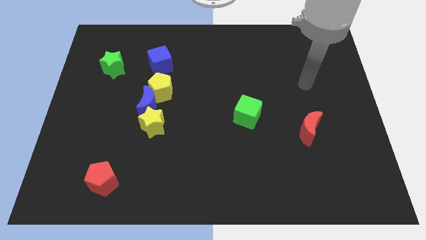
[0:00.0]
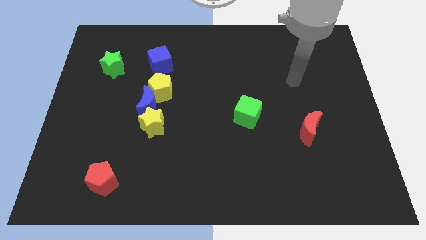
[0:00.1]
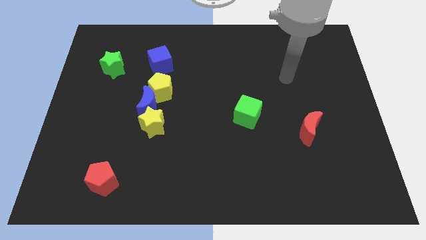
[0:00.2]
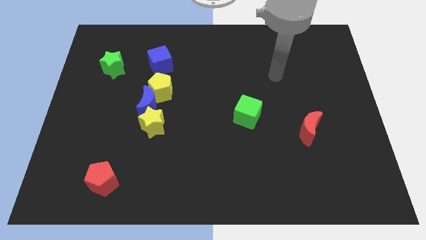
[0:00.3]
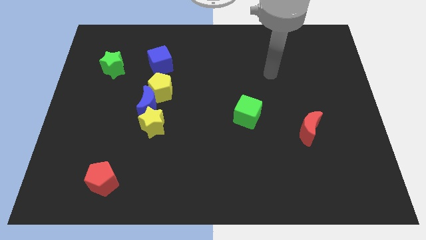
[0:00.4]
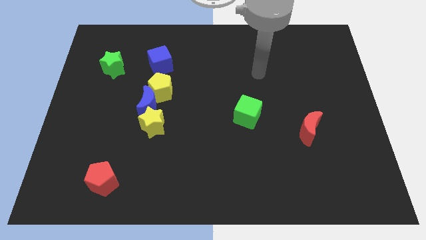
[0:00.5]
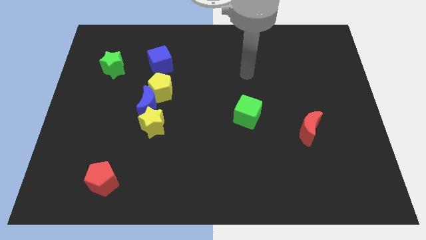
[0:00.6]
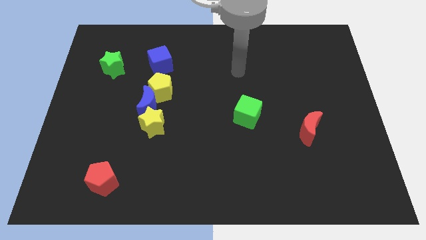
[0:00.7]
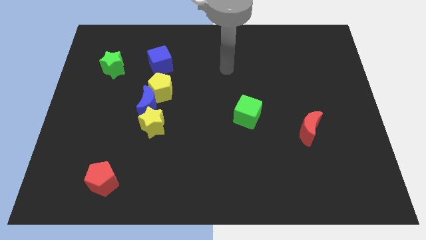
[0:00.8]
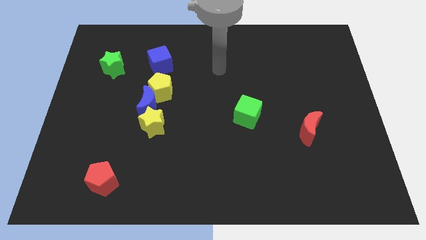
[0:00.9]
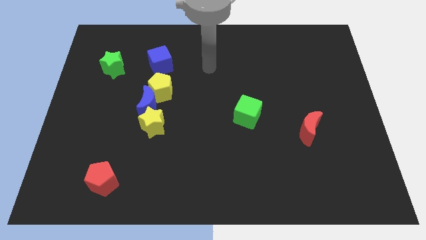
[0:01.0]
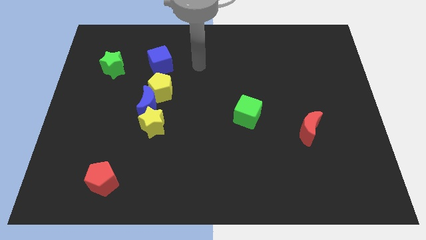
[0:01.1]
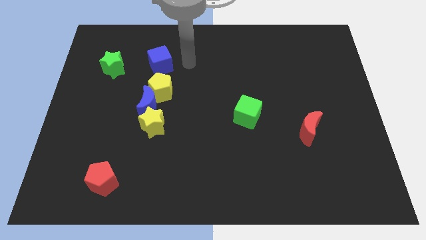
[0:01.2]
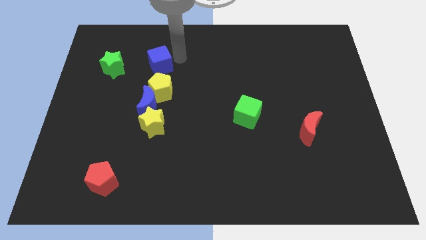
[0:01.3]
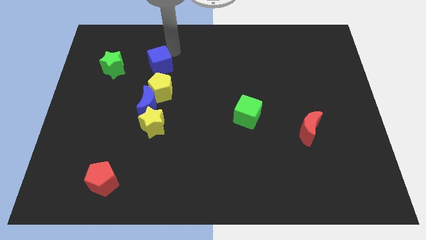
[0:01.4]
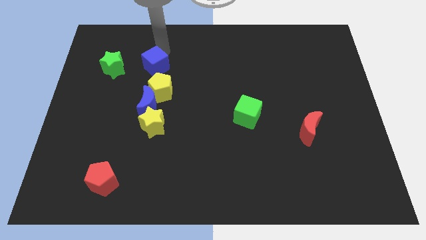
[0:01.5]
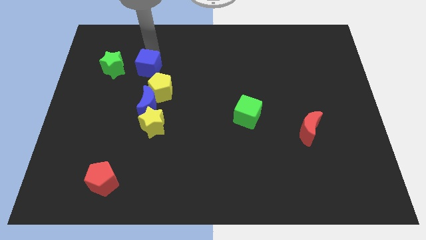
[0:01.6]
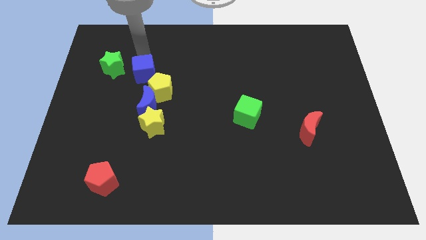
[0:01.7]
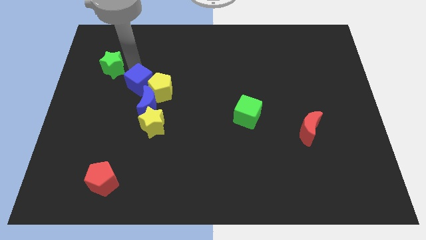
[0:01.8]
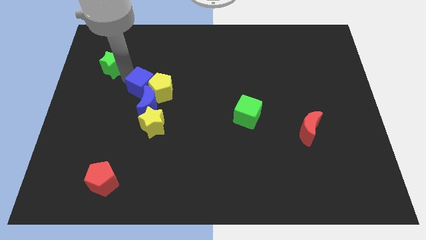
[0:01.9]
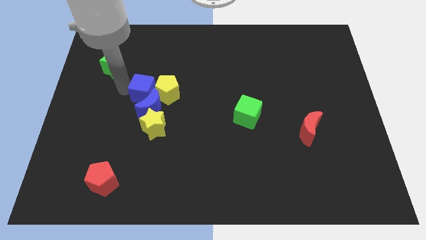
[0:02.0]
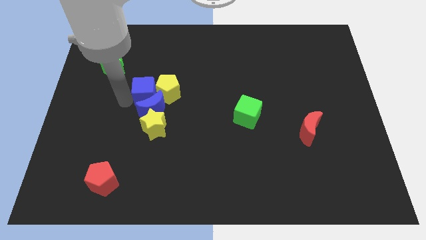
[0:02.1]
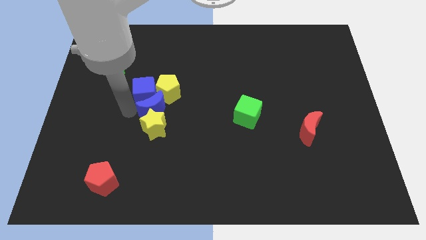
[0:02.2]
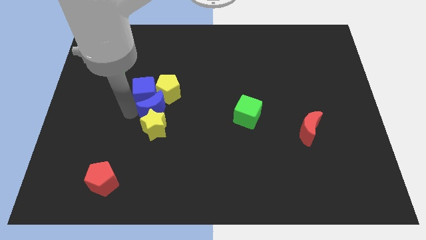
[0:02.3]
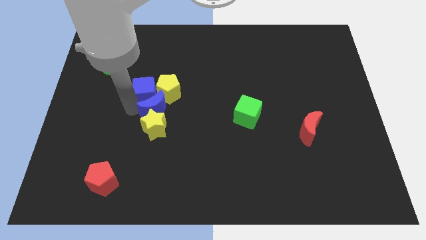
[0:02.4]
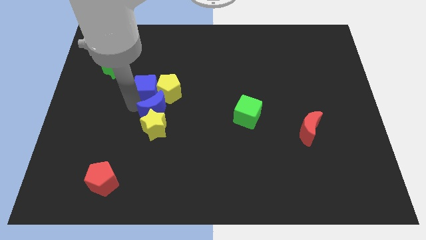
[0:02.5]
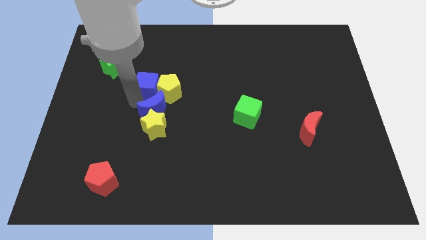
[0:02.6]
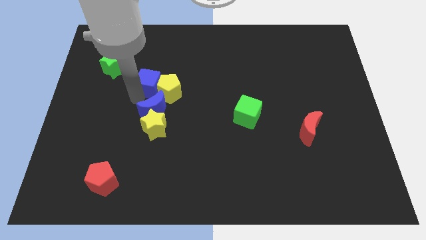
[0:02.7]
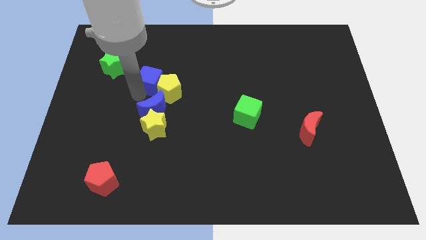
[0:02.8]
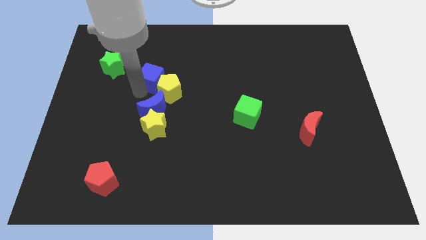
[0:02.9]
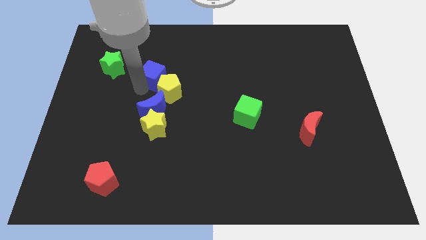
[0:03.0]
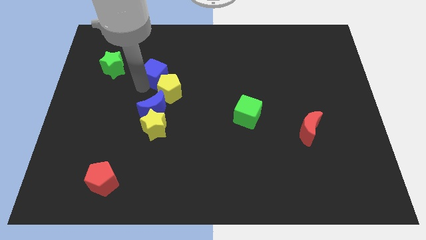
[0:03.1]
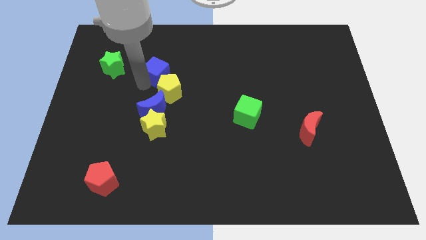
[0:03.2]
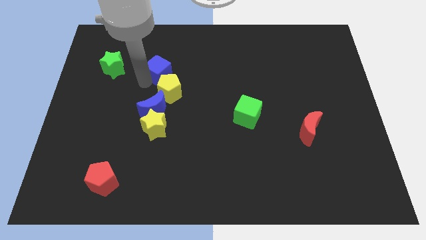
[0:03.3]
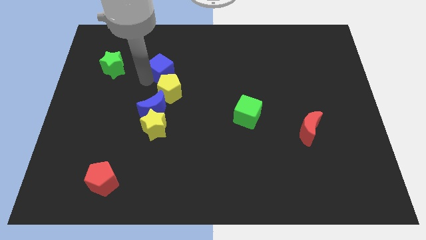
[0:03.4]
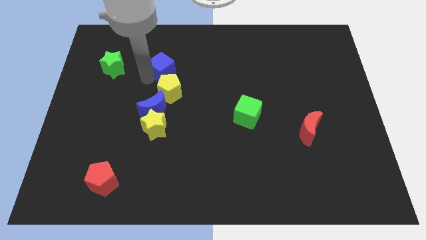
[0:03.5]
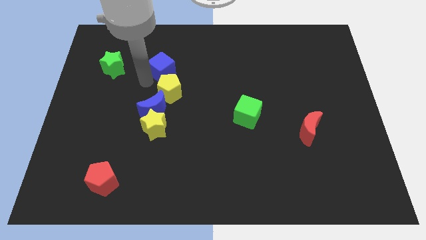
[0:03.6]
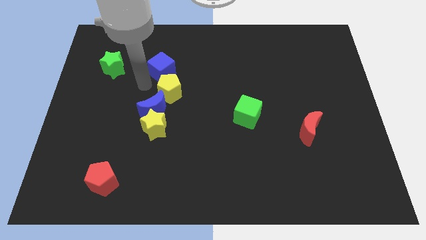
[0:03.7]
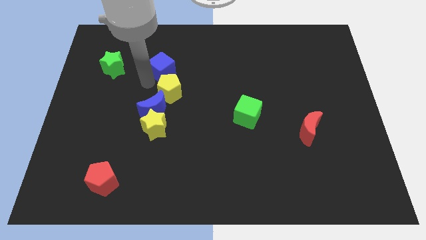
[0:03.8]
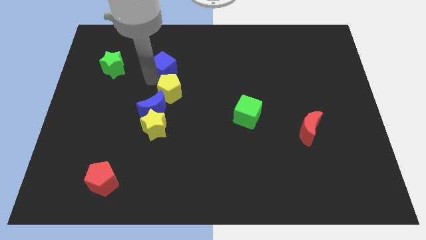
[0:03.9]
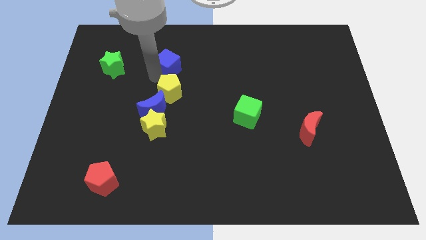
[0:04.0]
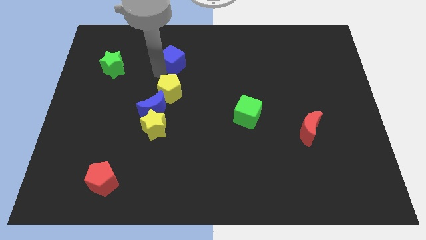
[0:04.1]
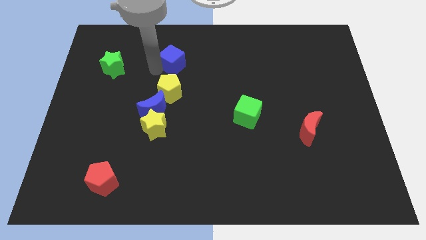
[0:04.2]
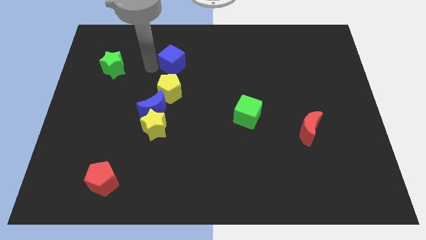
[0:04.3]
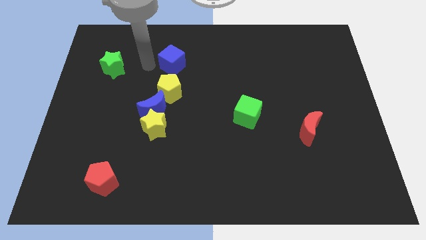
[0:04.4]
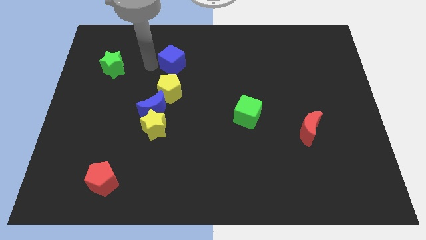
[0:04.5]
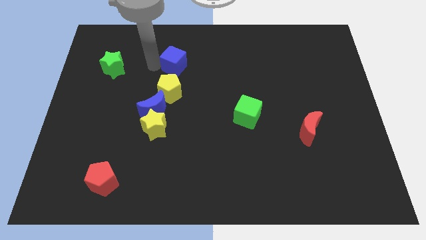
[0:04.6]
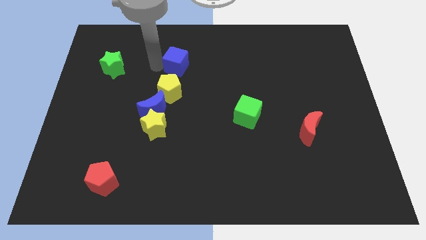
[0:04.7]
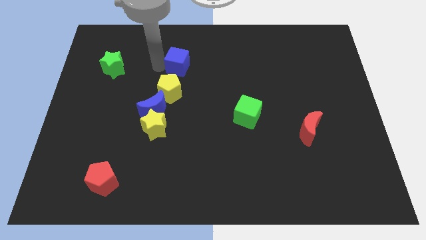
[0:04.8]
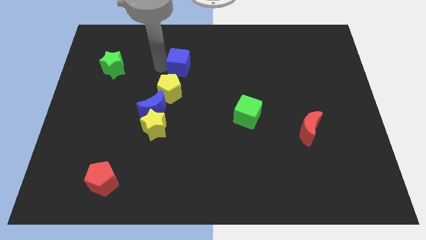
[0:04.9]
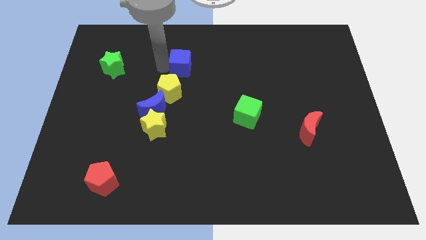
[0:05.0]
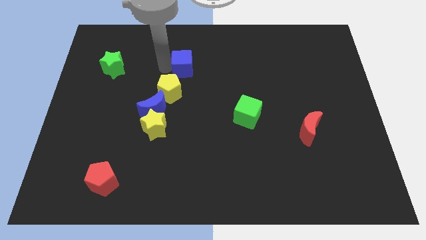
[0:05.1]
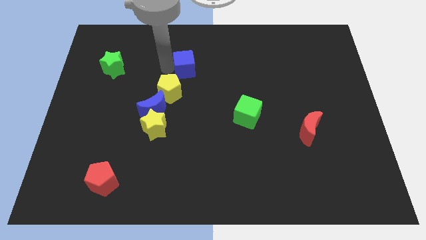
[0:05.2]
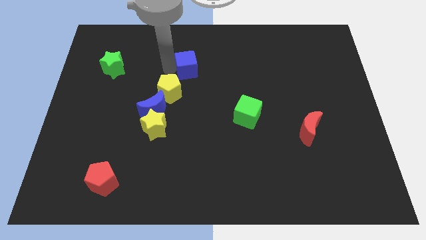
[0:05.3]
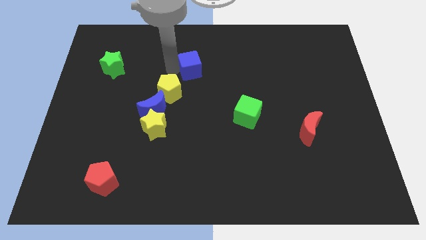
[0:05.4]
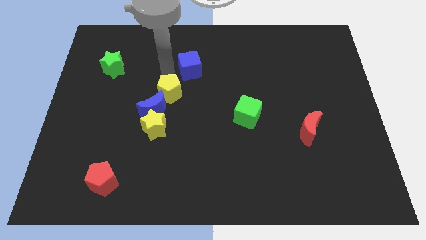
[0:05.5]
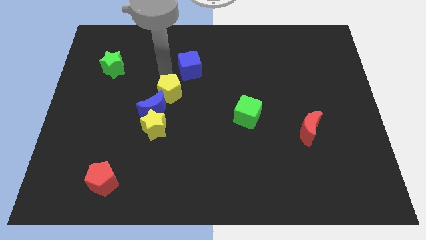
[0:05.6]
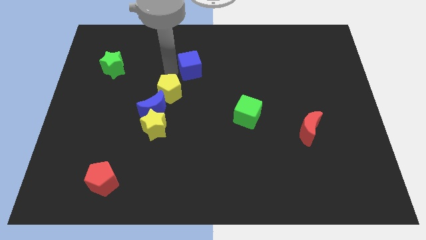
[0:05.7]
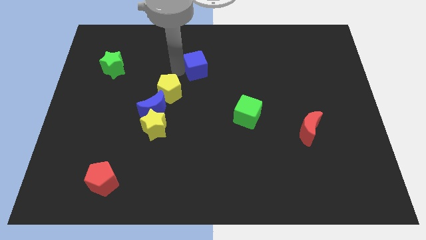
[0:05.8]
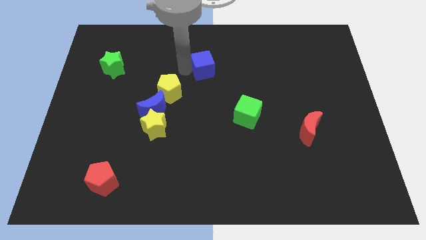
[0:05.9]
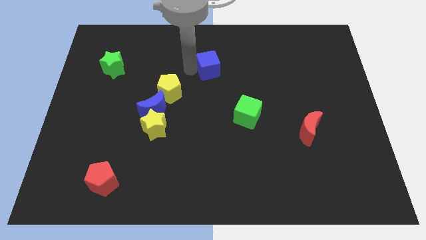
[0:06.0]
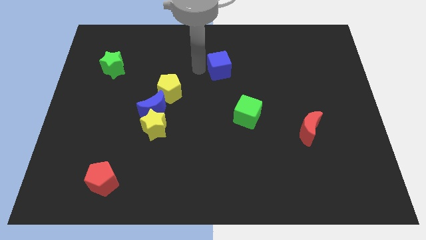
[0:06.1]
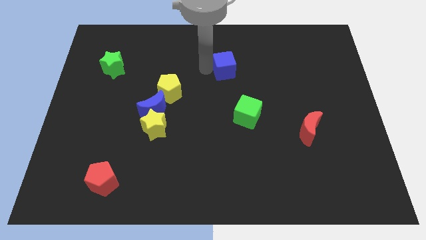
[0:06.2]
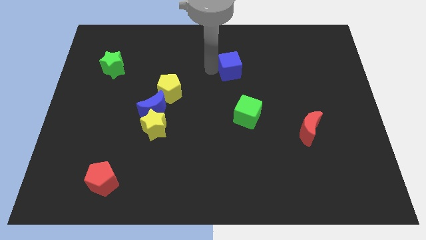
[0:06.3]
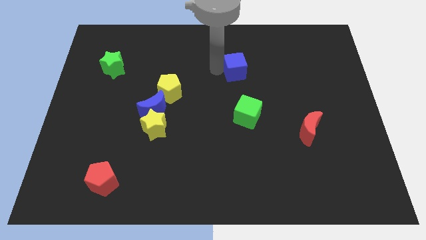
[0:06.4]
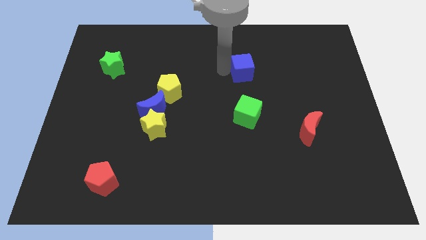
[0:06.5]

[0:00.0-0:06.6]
move the blue cube right

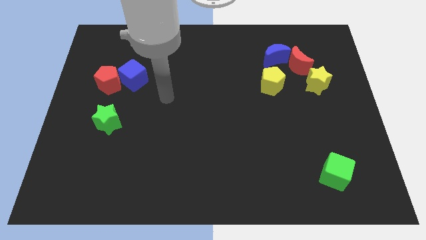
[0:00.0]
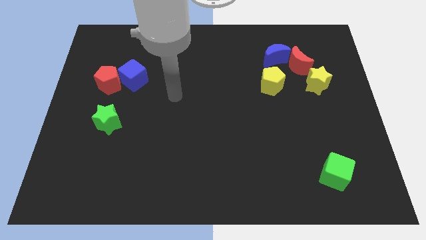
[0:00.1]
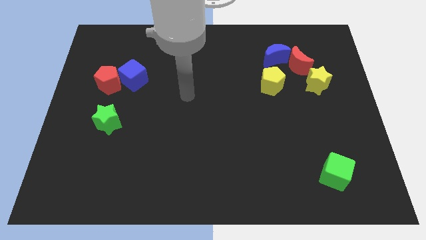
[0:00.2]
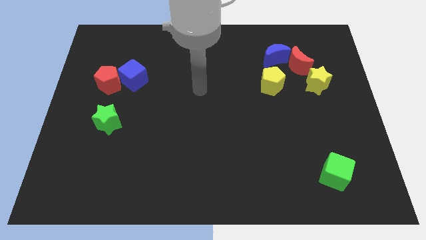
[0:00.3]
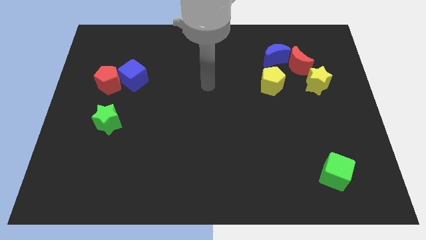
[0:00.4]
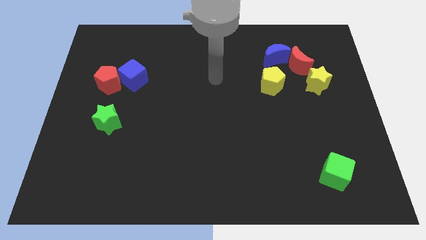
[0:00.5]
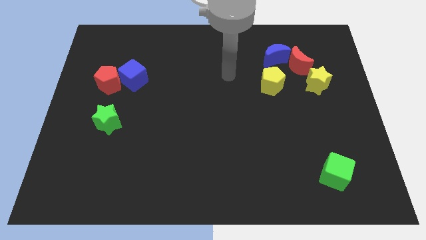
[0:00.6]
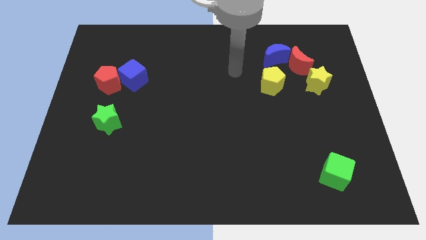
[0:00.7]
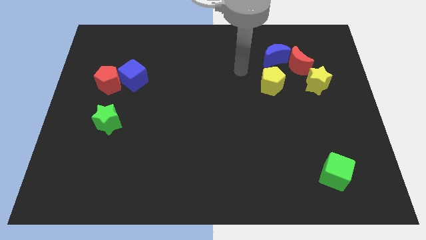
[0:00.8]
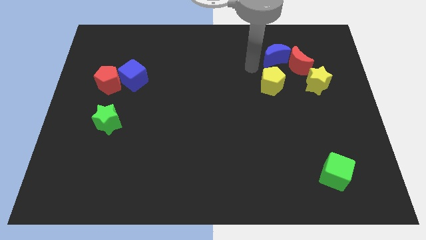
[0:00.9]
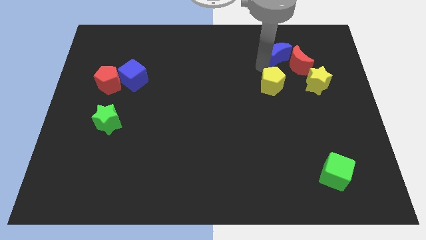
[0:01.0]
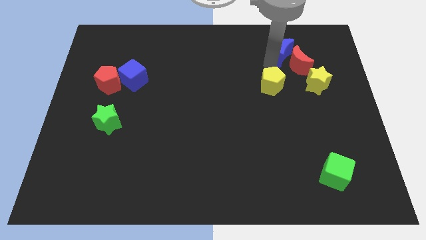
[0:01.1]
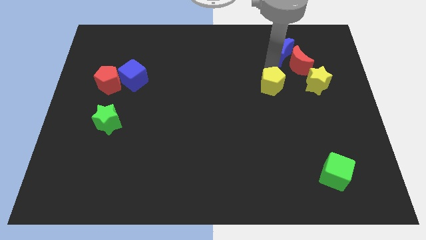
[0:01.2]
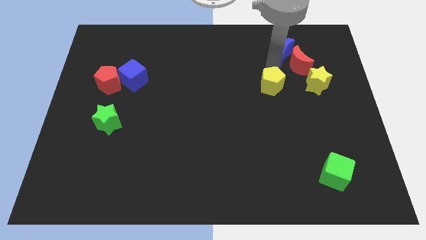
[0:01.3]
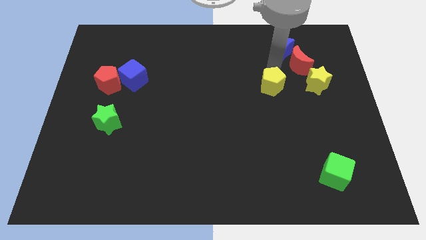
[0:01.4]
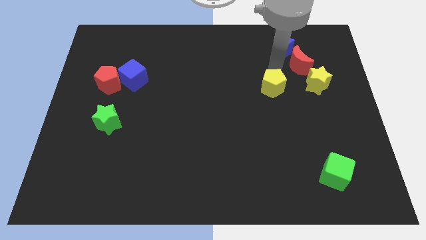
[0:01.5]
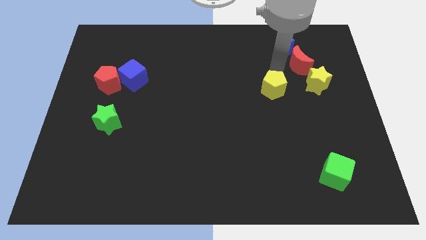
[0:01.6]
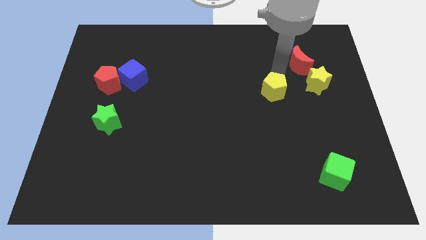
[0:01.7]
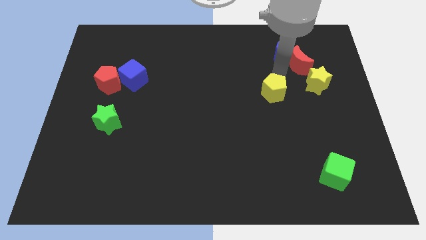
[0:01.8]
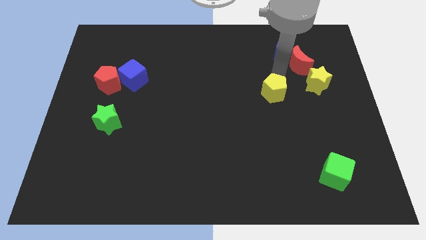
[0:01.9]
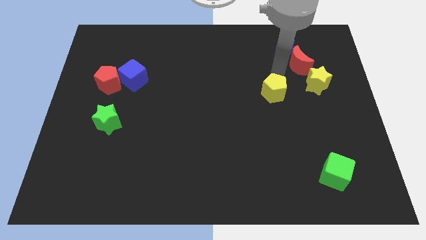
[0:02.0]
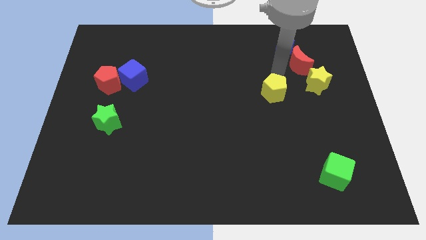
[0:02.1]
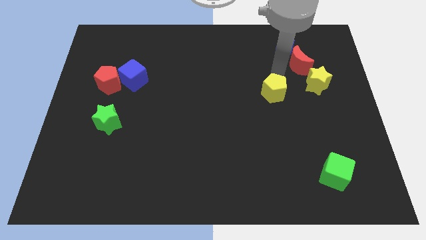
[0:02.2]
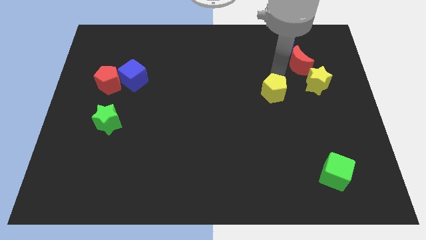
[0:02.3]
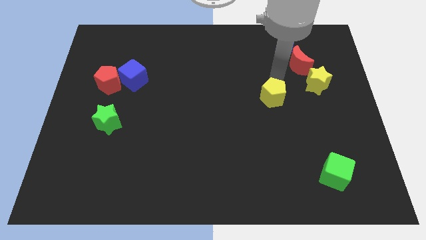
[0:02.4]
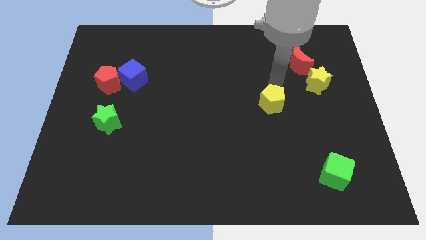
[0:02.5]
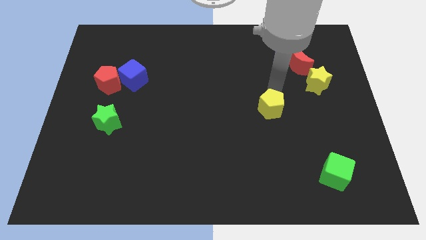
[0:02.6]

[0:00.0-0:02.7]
move the yellow pentagon down a little
